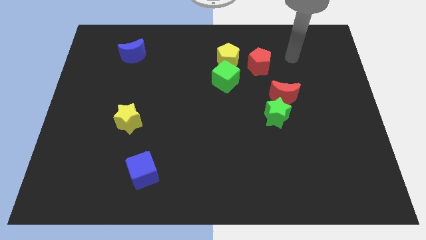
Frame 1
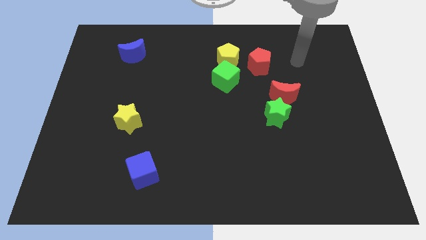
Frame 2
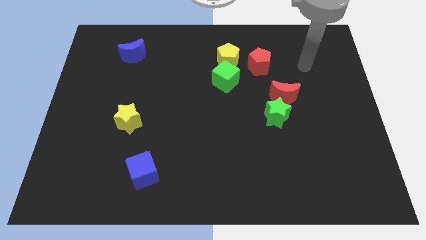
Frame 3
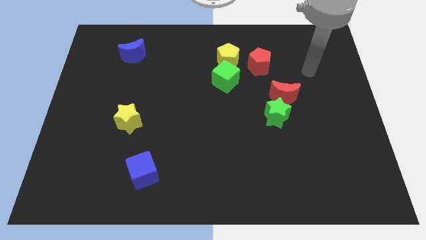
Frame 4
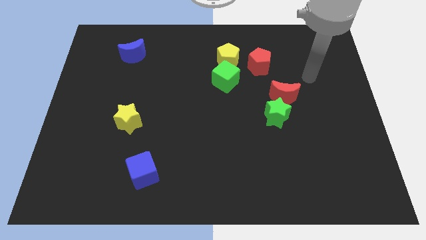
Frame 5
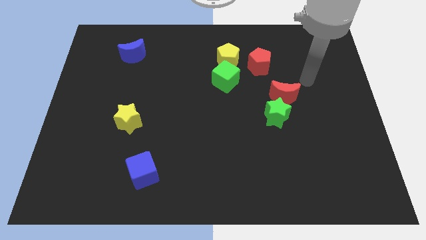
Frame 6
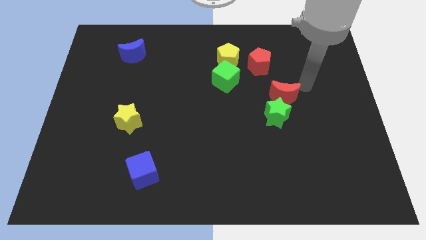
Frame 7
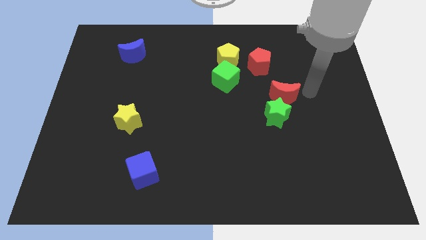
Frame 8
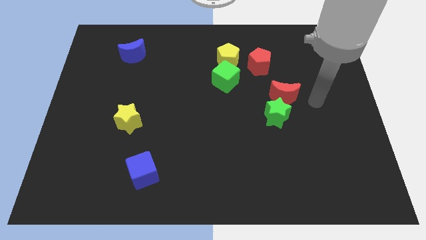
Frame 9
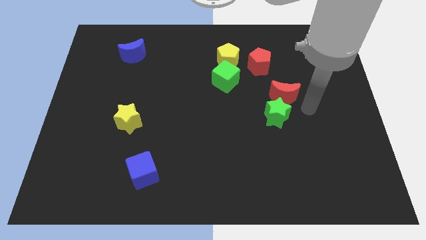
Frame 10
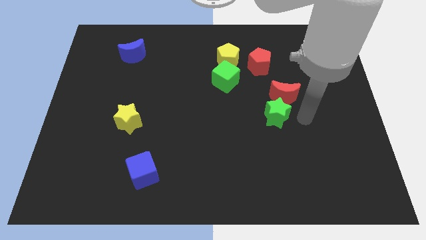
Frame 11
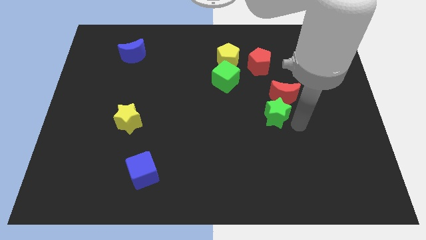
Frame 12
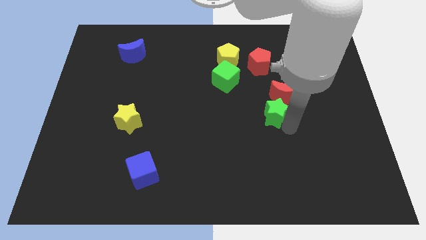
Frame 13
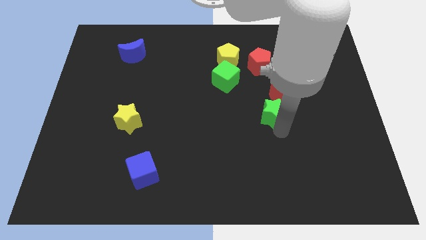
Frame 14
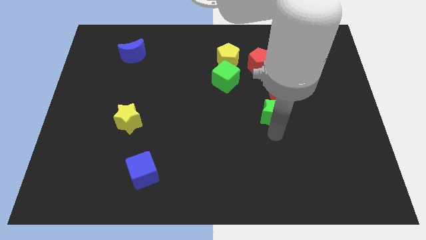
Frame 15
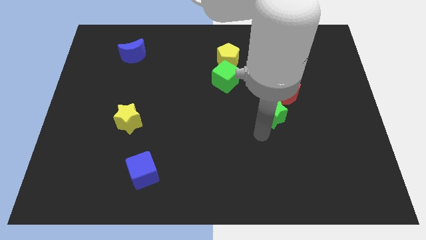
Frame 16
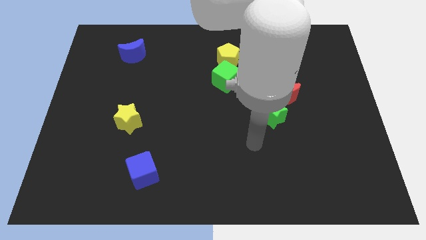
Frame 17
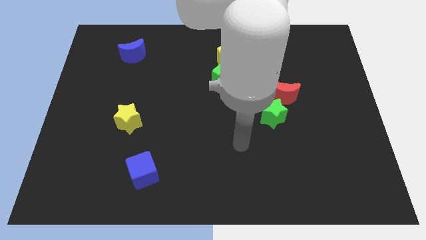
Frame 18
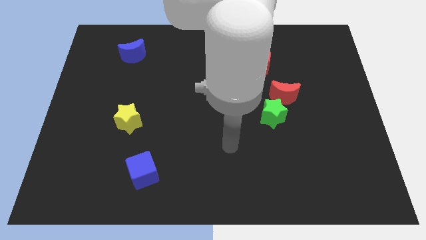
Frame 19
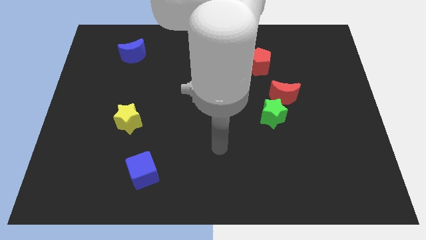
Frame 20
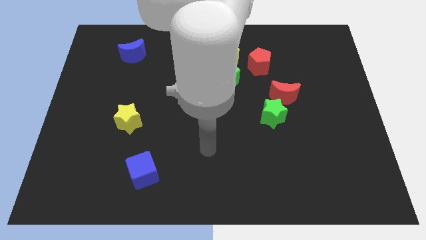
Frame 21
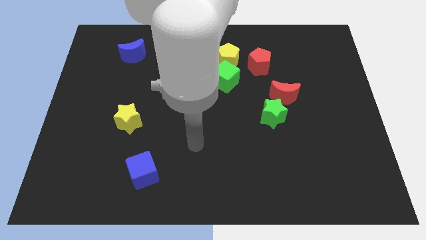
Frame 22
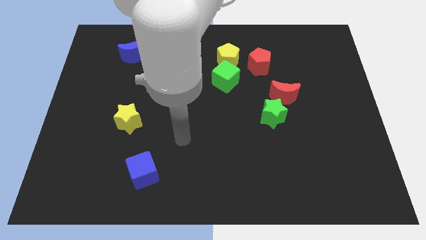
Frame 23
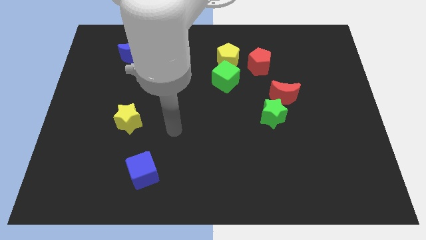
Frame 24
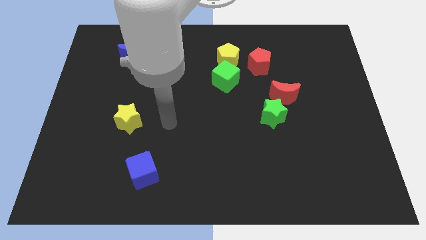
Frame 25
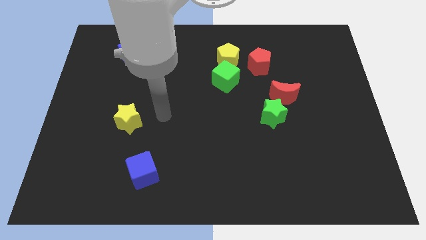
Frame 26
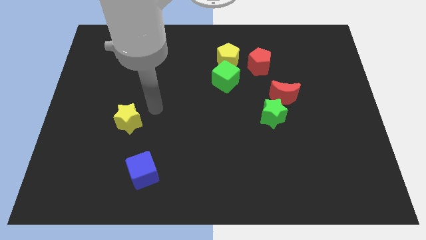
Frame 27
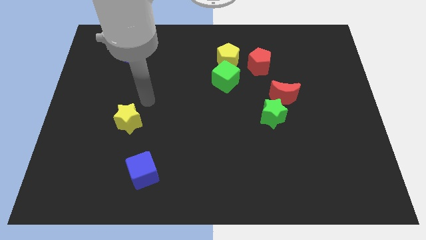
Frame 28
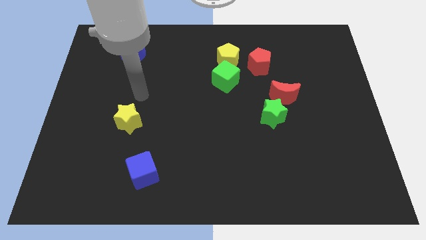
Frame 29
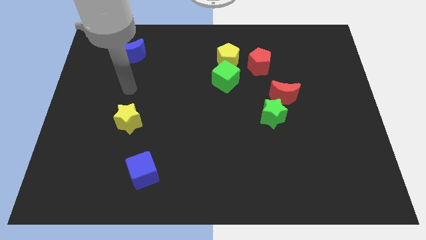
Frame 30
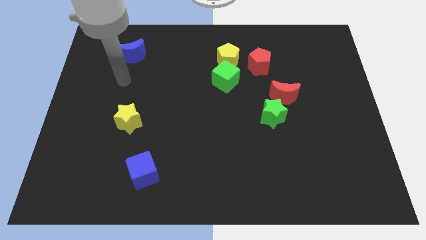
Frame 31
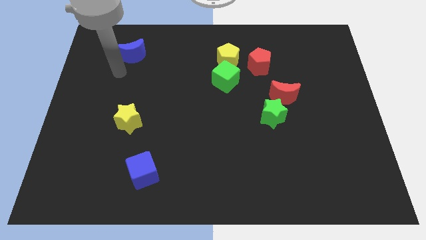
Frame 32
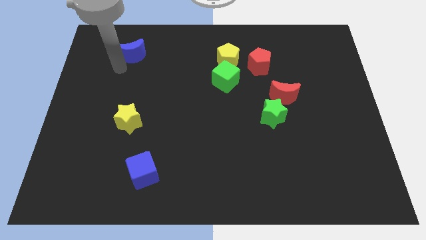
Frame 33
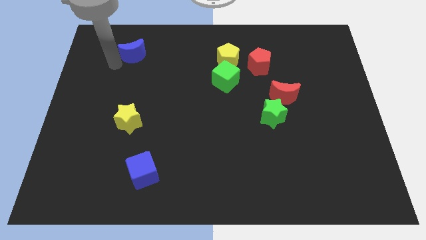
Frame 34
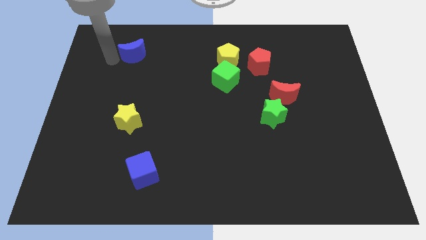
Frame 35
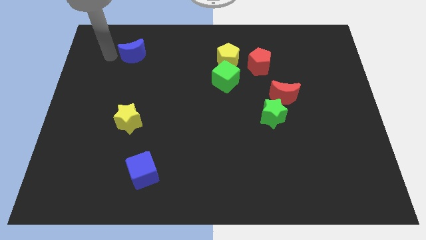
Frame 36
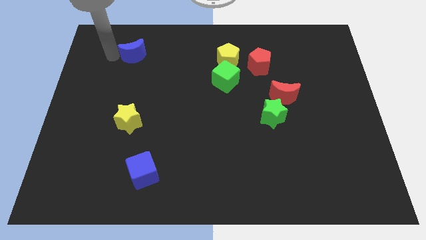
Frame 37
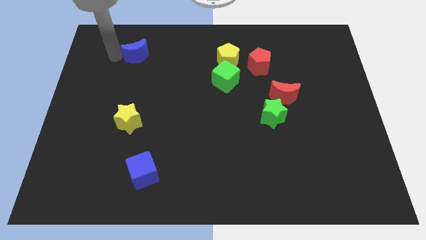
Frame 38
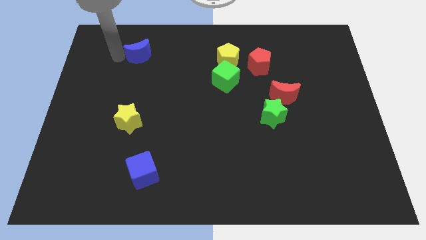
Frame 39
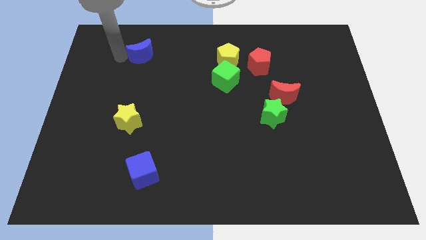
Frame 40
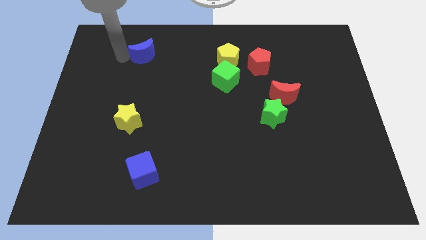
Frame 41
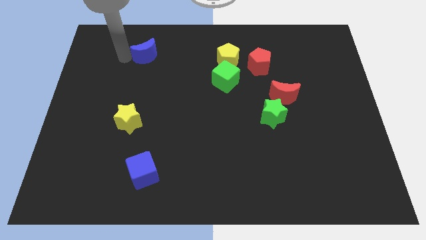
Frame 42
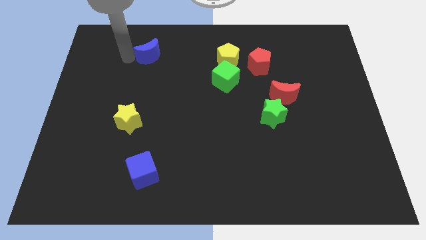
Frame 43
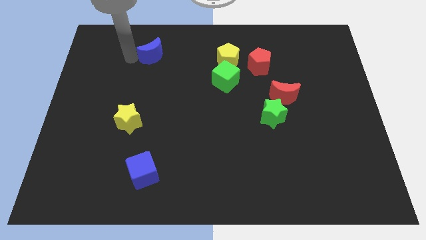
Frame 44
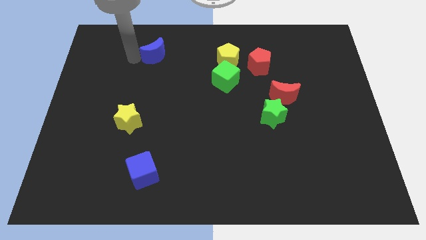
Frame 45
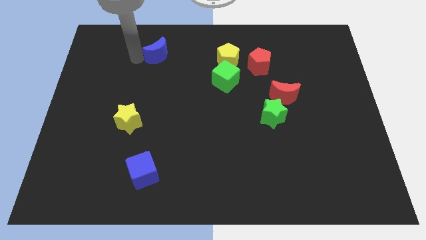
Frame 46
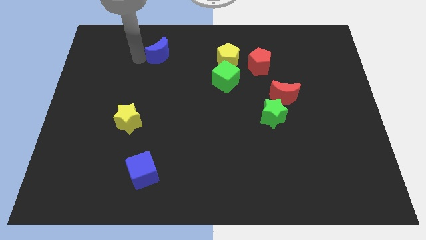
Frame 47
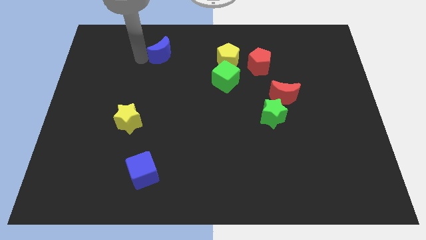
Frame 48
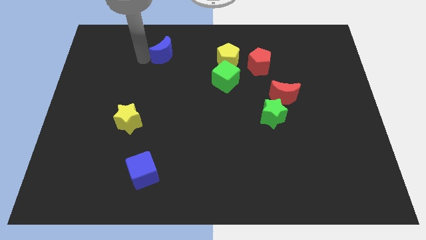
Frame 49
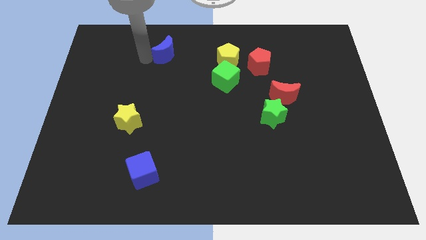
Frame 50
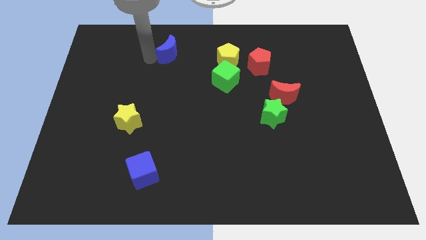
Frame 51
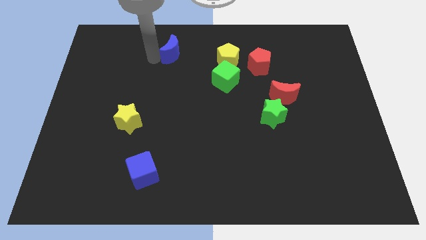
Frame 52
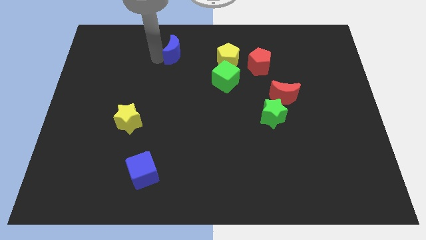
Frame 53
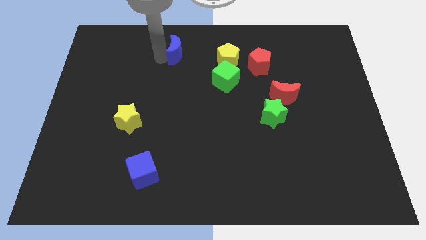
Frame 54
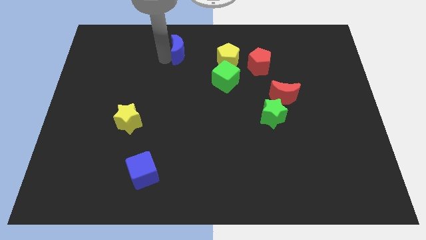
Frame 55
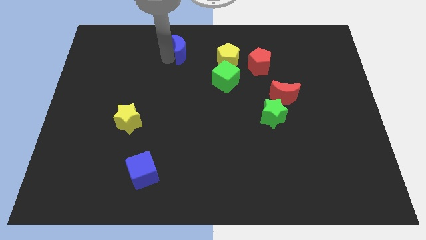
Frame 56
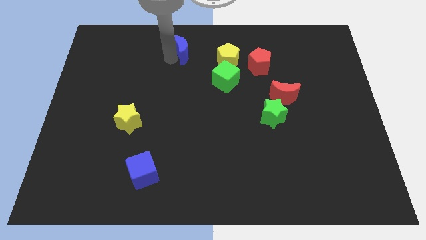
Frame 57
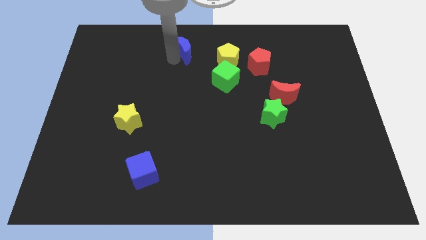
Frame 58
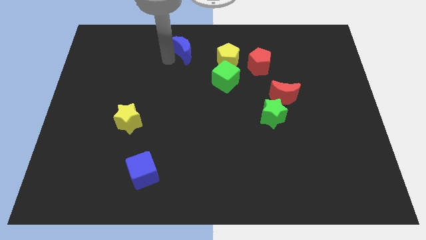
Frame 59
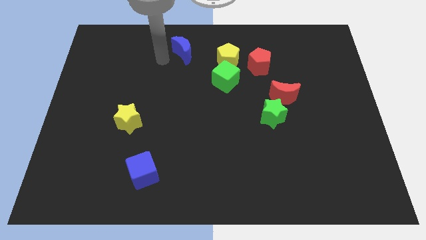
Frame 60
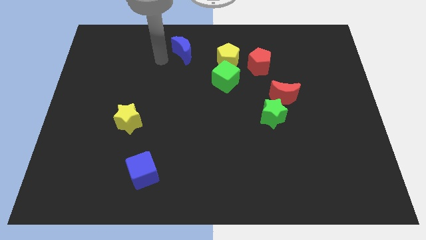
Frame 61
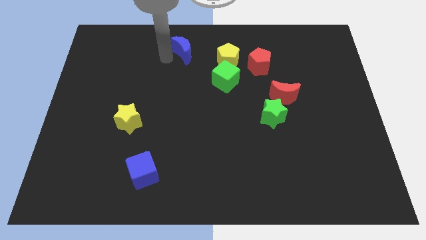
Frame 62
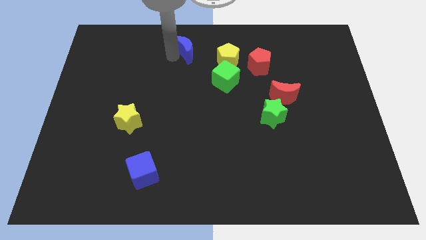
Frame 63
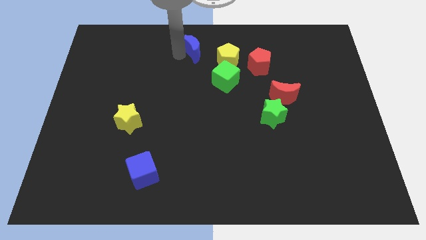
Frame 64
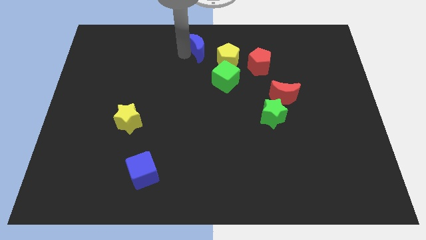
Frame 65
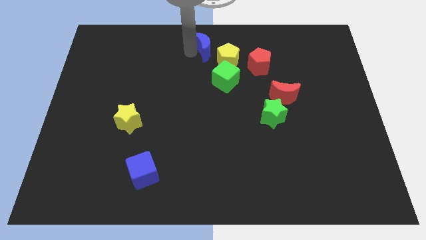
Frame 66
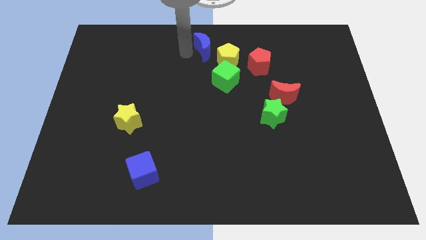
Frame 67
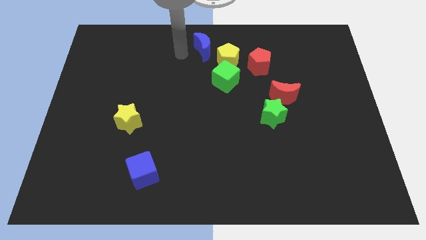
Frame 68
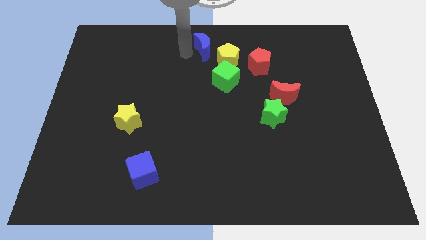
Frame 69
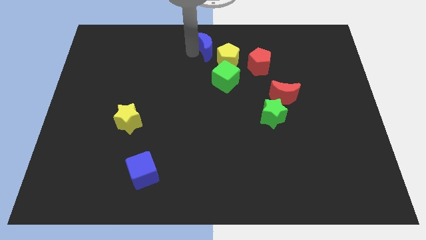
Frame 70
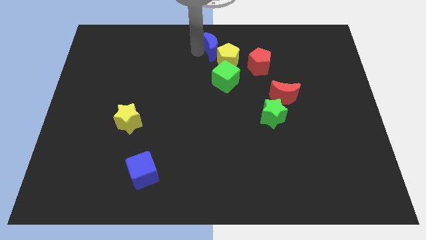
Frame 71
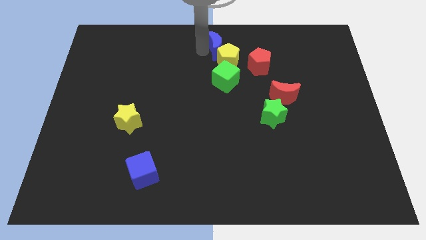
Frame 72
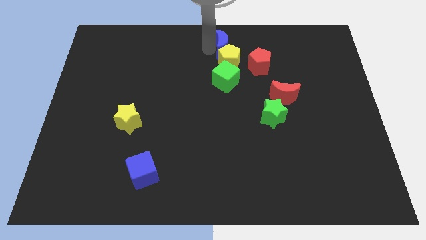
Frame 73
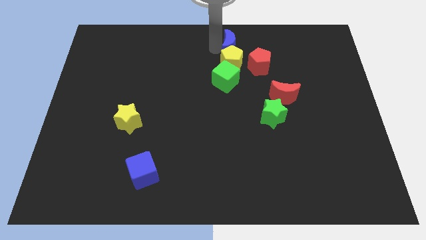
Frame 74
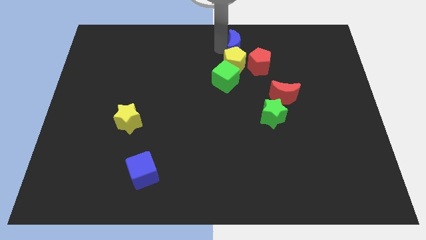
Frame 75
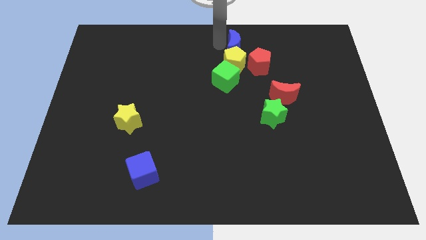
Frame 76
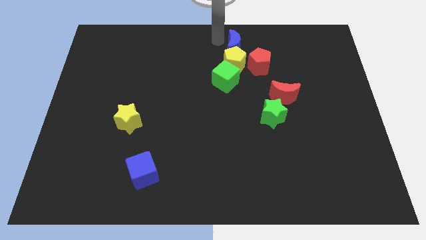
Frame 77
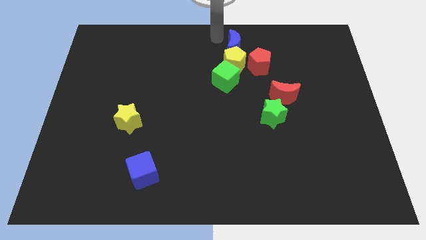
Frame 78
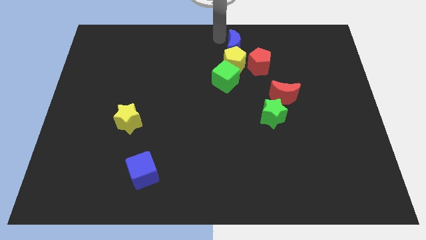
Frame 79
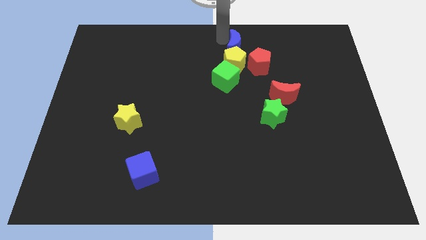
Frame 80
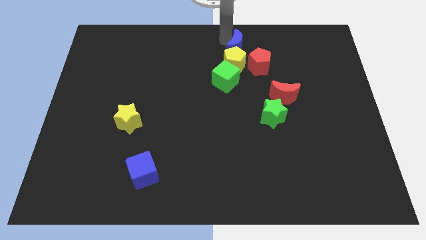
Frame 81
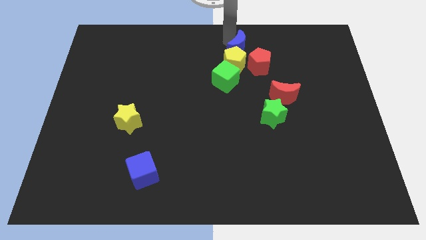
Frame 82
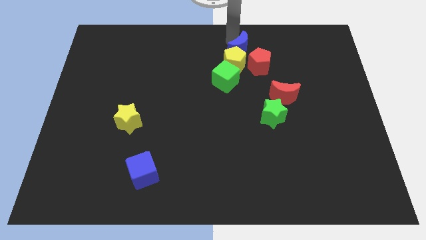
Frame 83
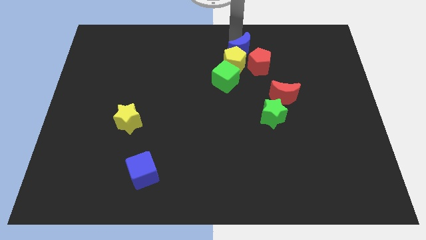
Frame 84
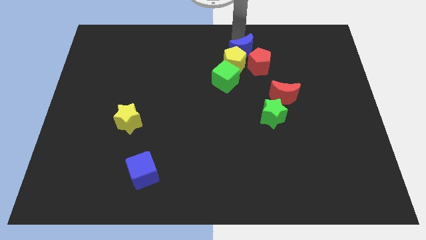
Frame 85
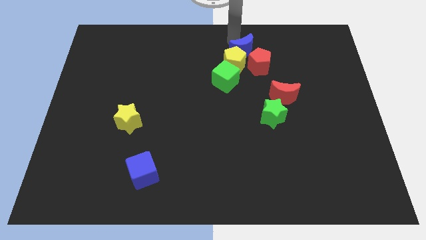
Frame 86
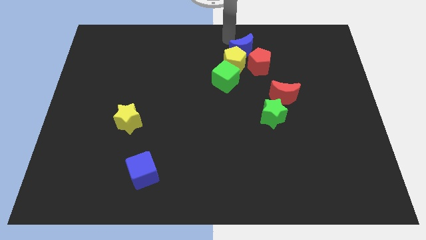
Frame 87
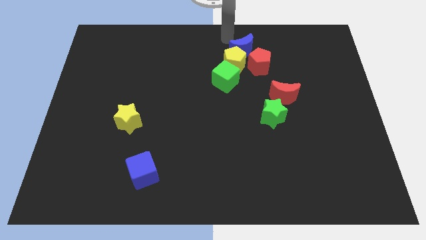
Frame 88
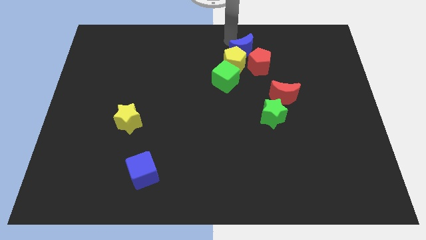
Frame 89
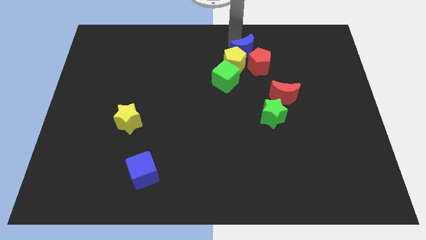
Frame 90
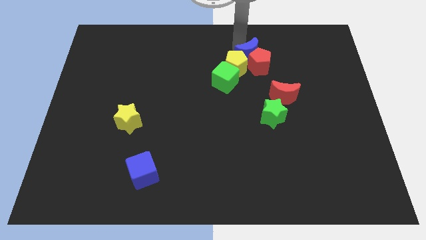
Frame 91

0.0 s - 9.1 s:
slide the blue moon towards the red pentagon
